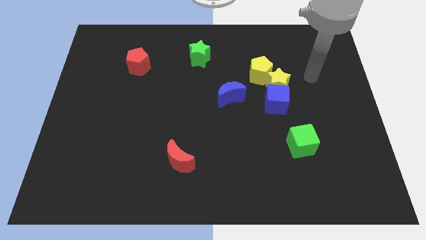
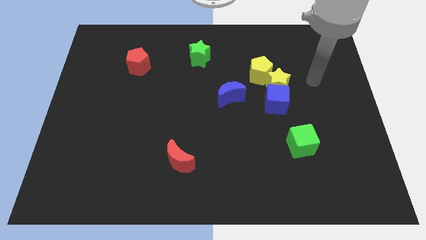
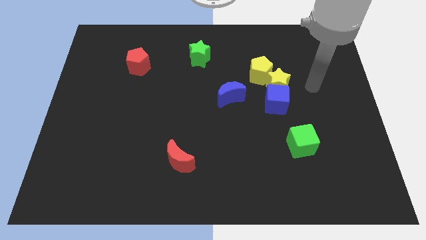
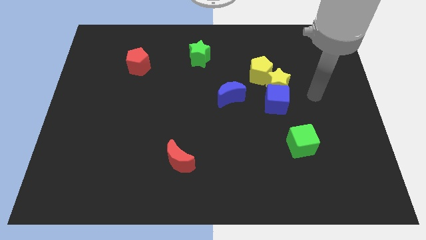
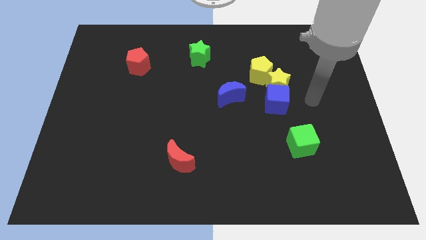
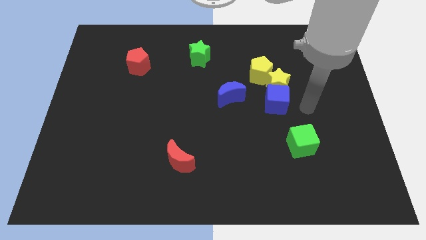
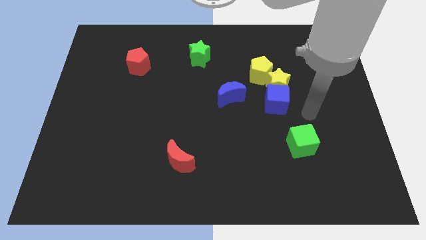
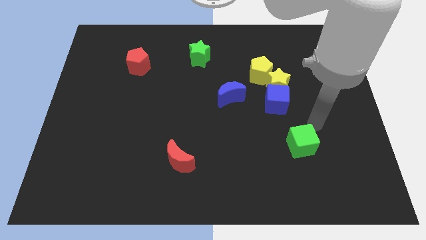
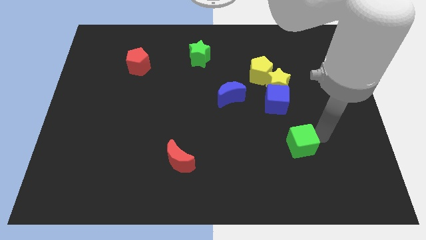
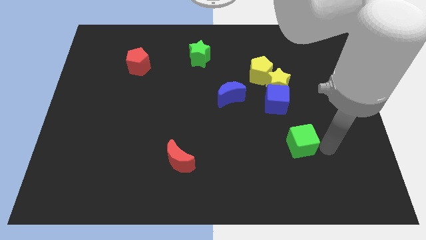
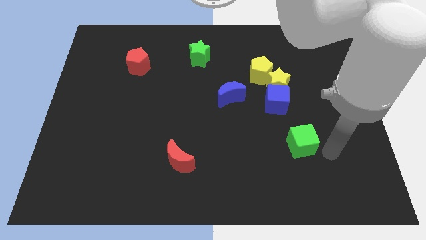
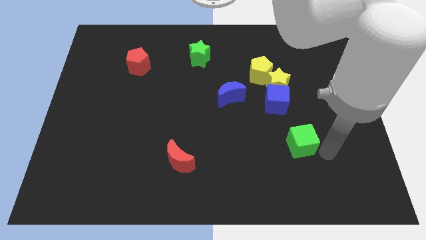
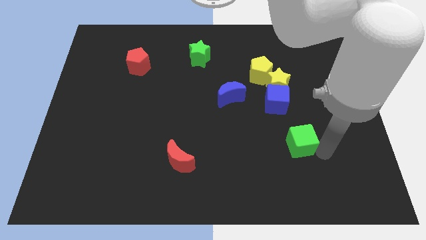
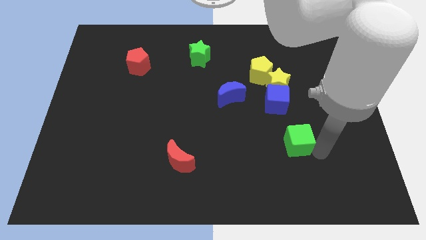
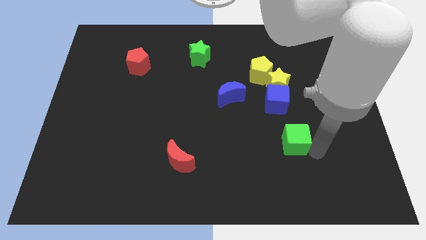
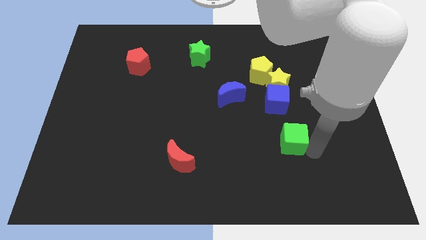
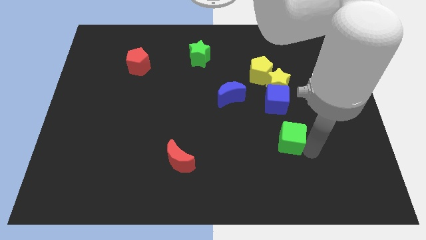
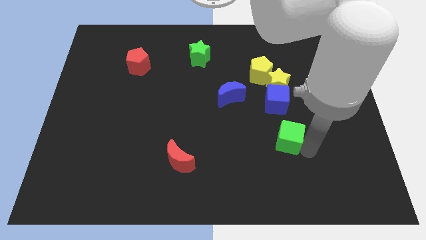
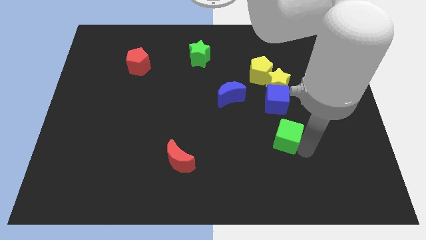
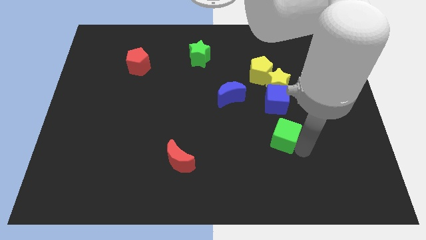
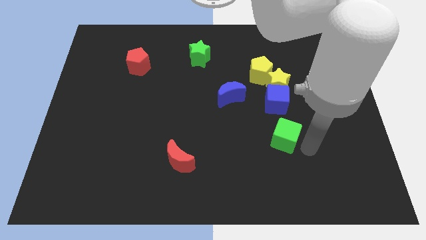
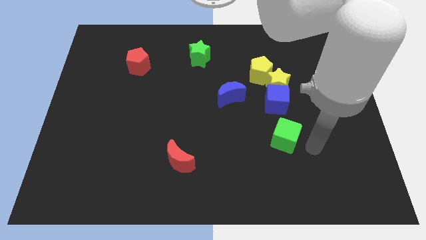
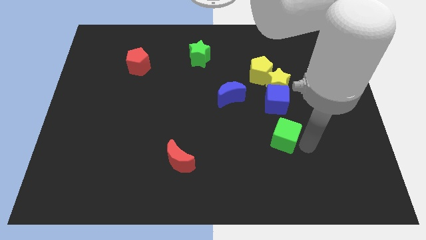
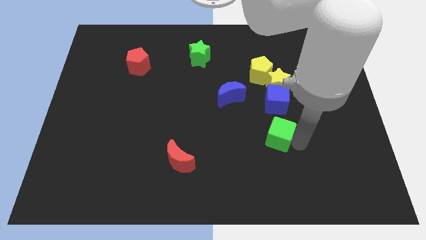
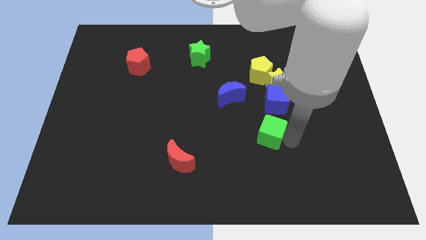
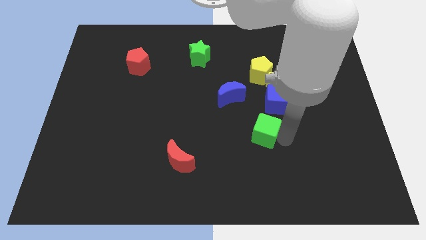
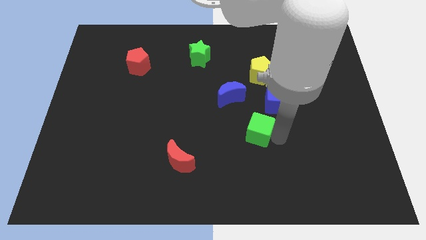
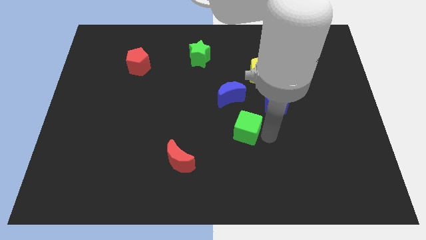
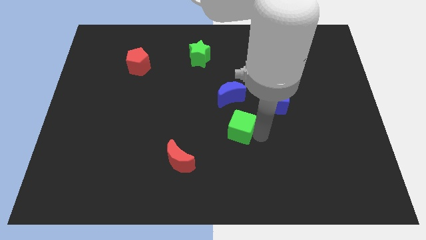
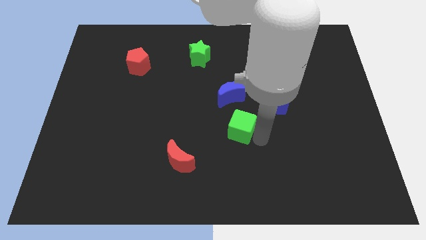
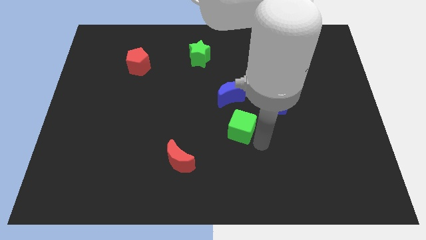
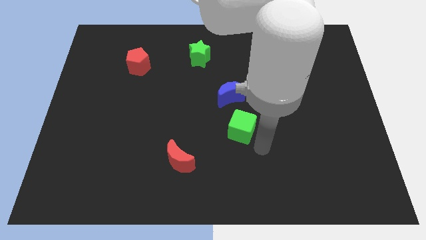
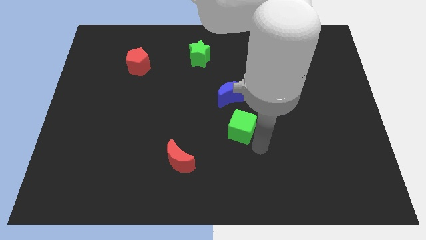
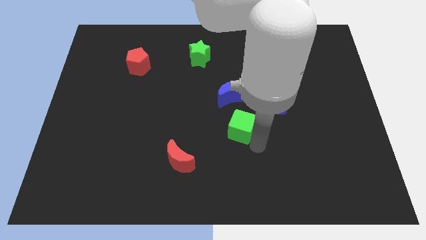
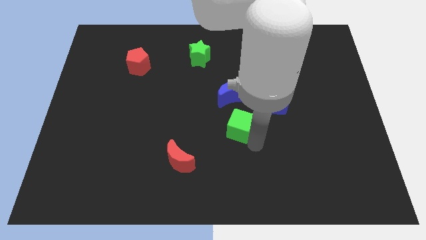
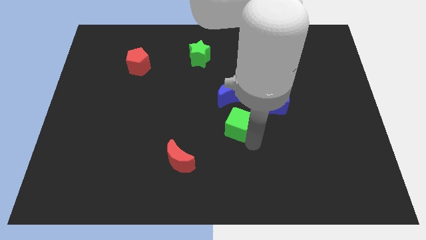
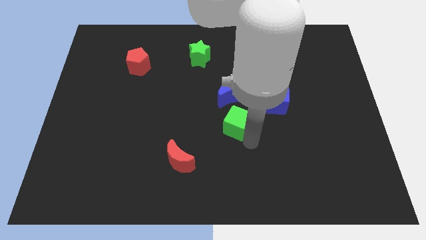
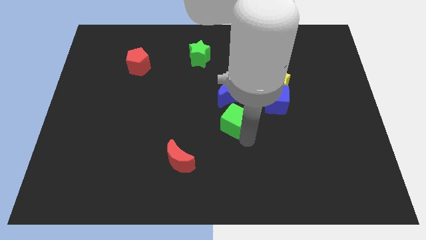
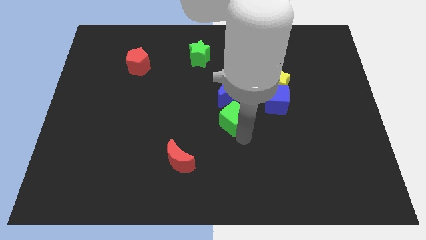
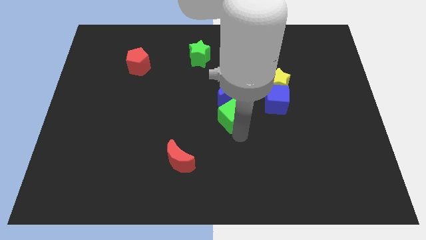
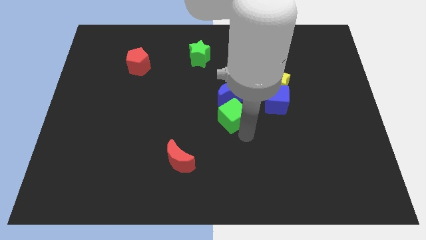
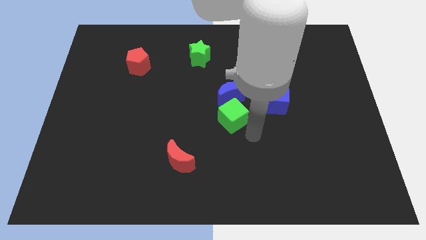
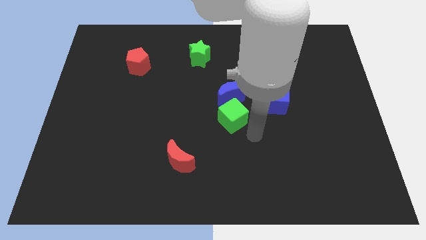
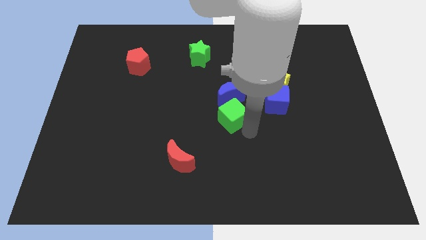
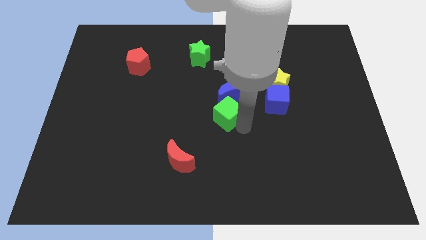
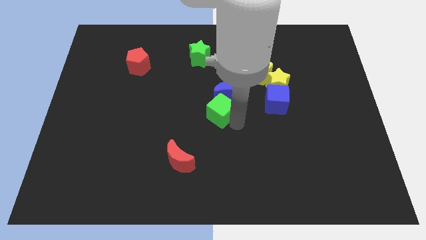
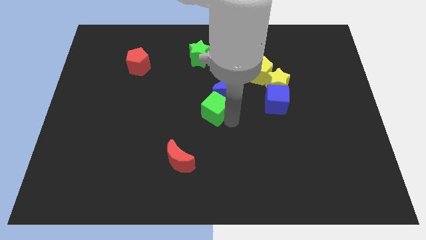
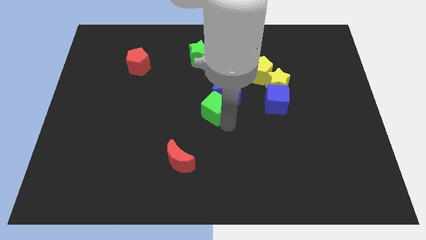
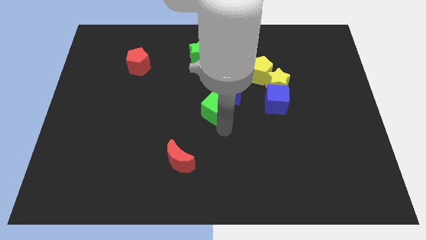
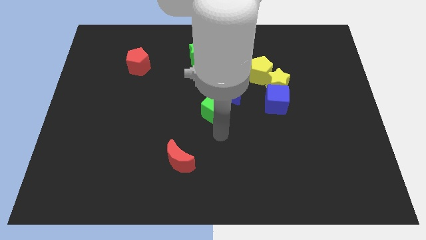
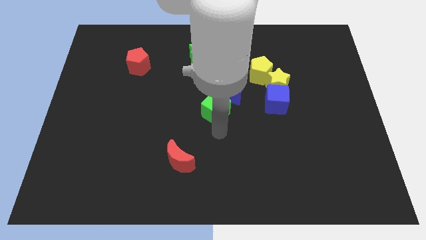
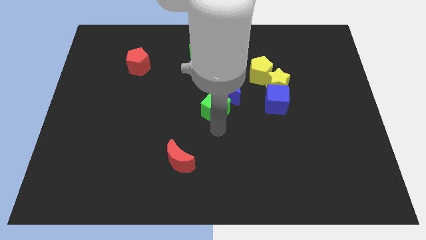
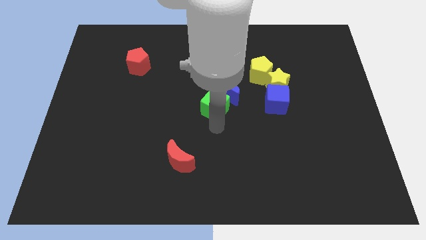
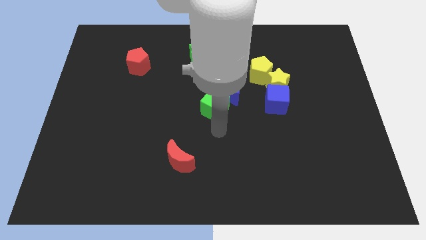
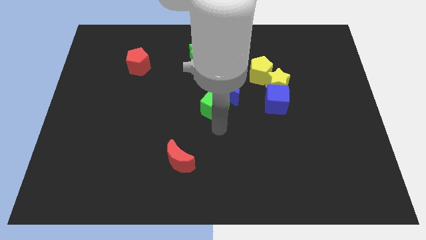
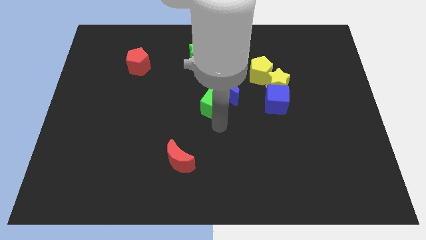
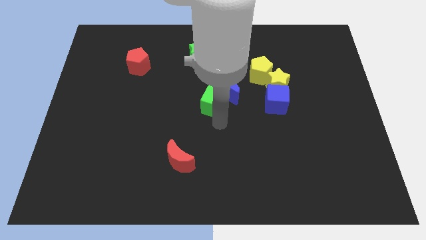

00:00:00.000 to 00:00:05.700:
move the green cube upwards and to the left

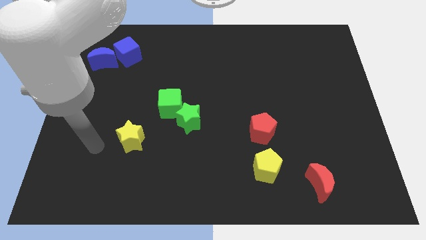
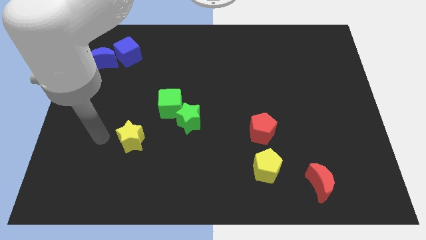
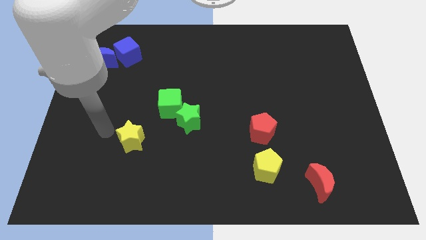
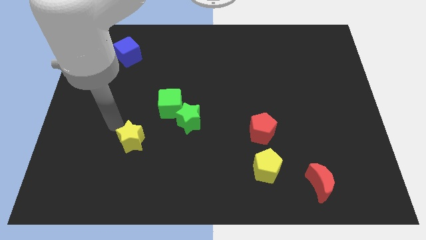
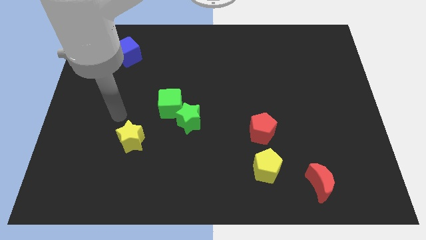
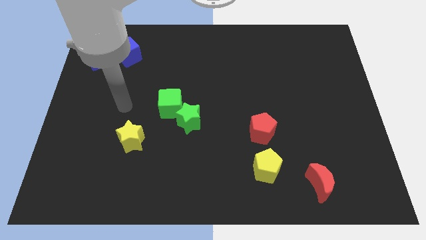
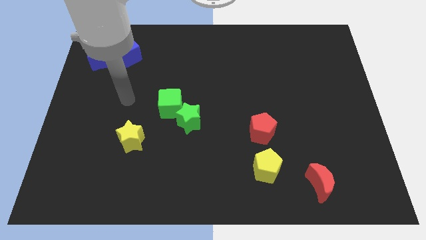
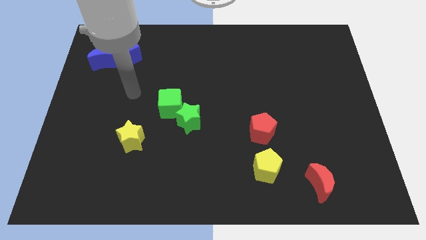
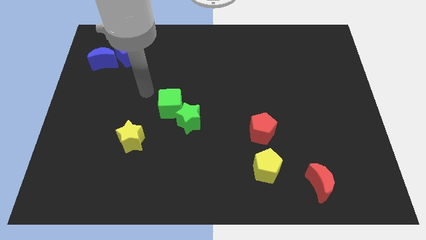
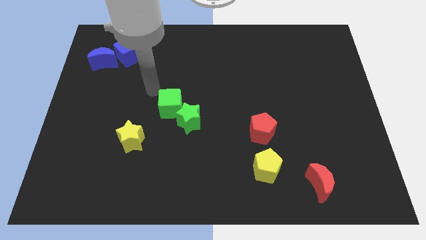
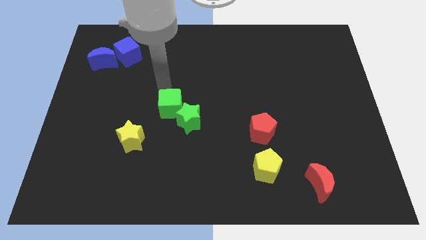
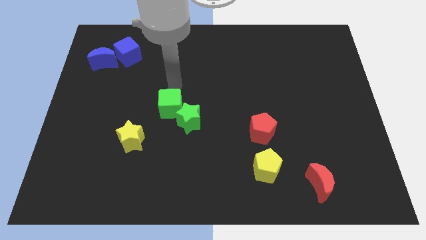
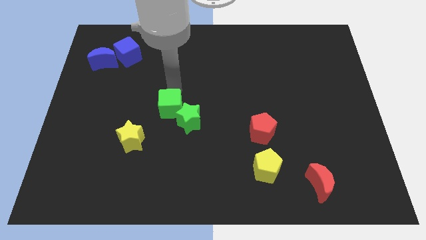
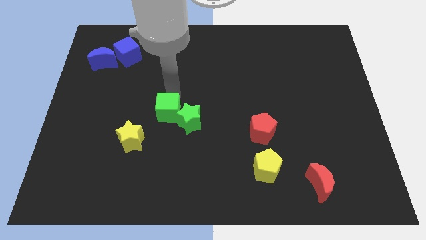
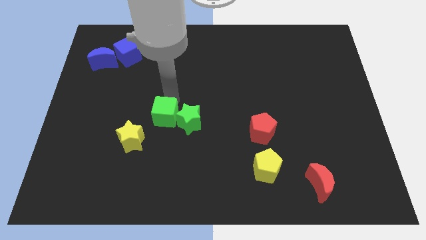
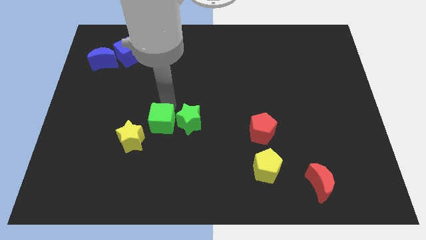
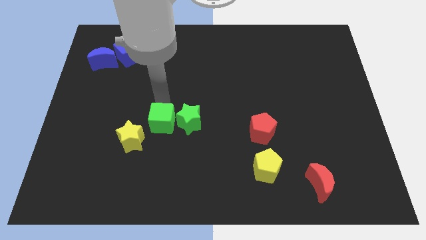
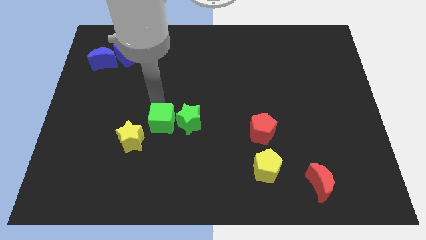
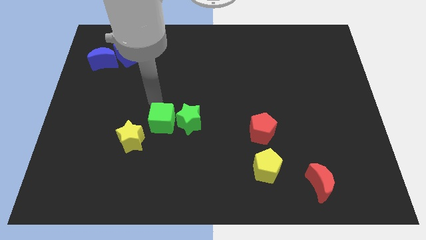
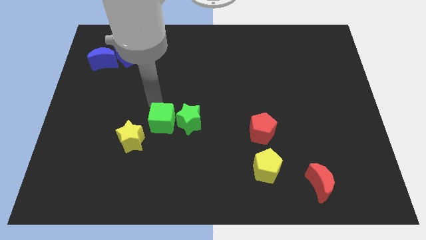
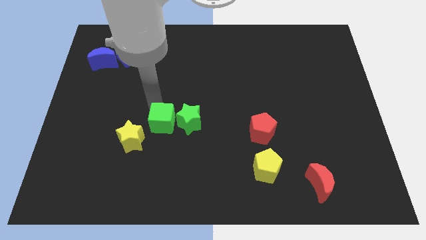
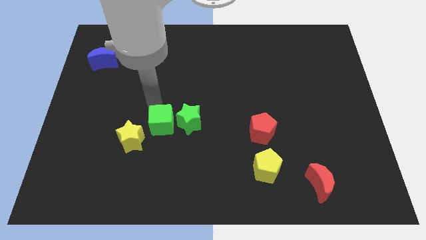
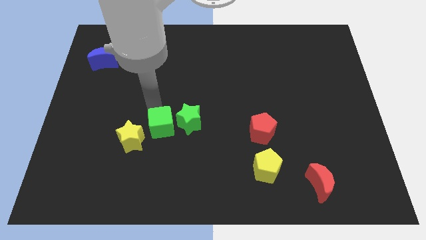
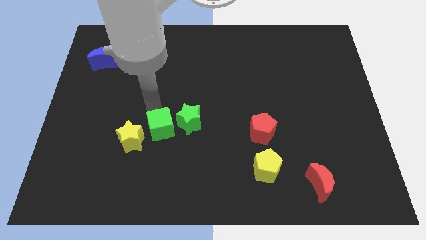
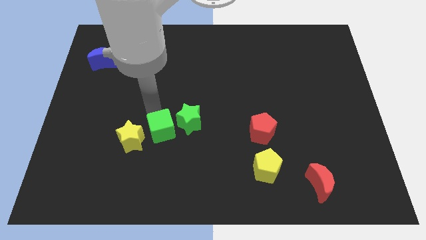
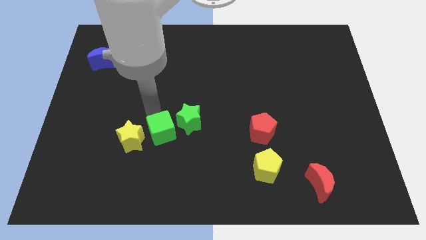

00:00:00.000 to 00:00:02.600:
move the green cube down a bit
